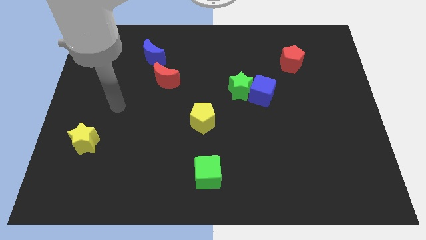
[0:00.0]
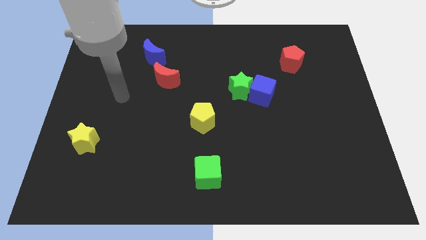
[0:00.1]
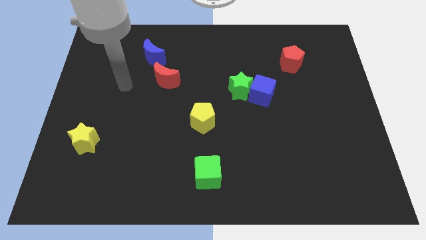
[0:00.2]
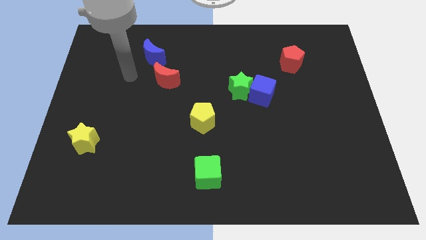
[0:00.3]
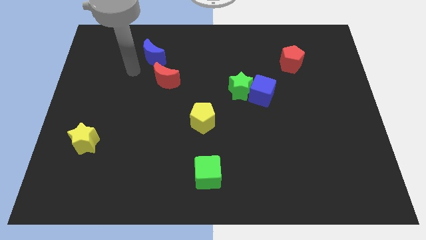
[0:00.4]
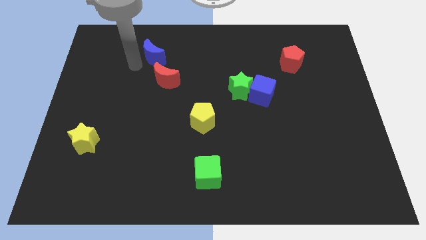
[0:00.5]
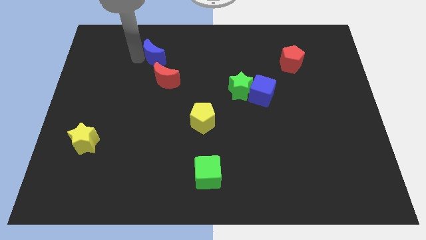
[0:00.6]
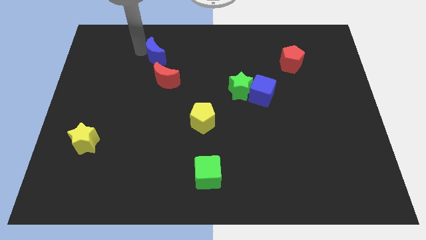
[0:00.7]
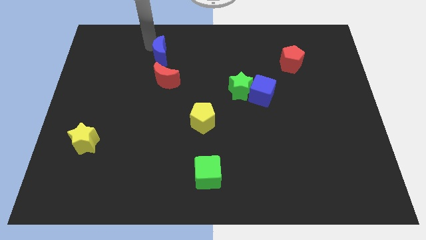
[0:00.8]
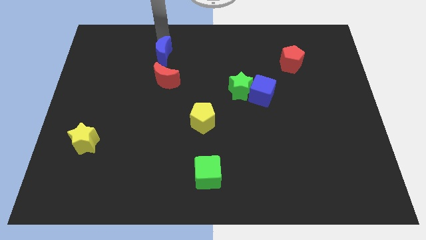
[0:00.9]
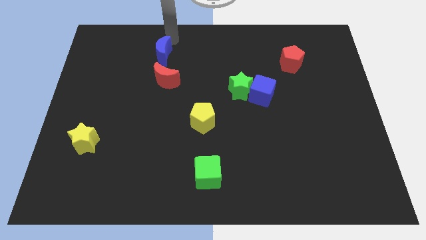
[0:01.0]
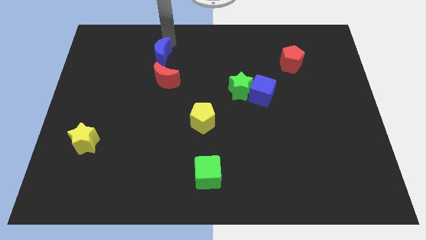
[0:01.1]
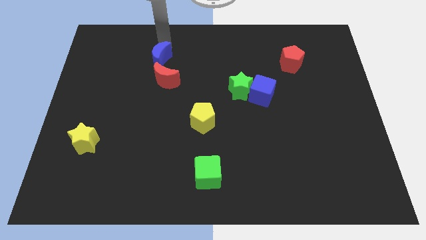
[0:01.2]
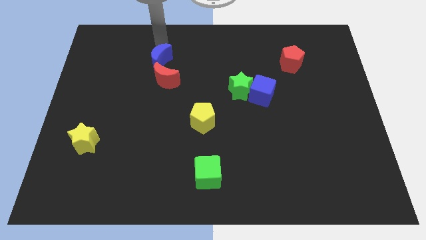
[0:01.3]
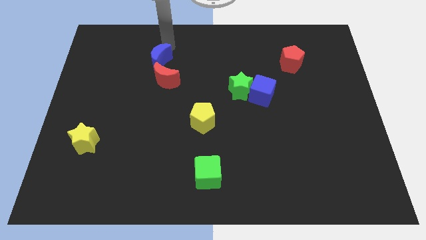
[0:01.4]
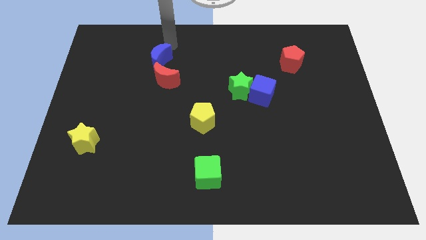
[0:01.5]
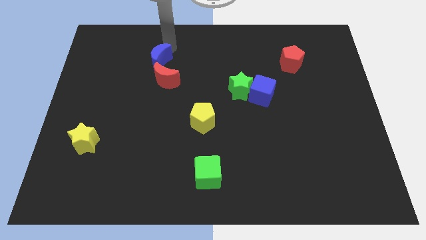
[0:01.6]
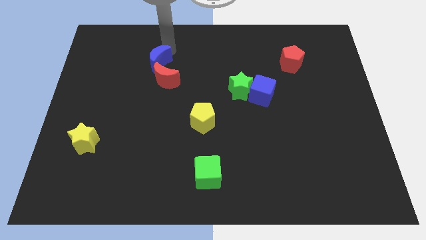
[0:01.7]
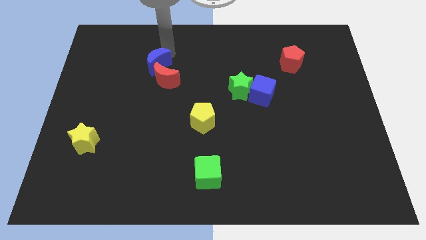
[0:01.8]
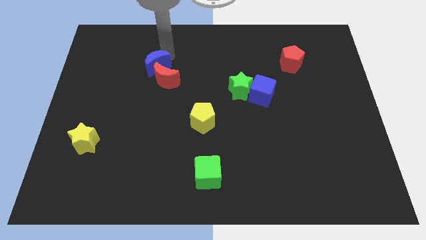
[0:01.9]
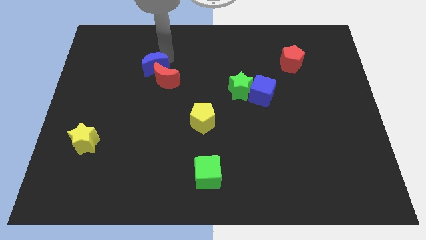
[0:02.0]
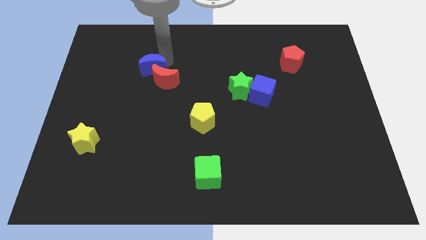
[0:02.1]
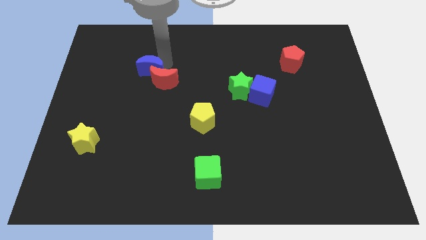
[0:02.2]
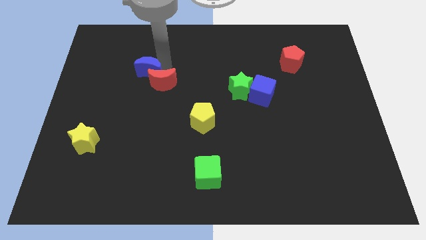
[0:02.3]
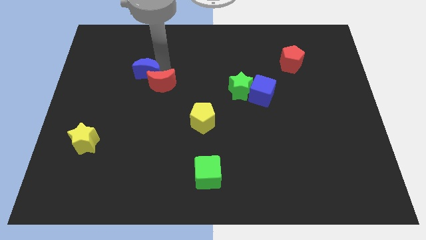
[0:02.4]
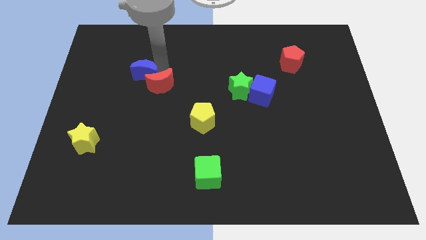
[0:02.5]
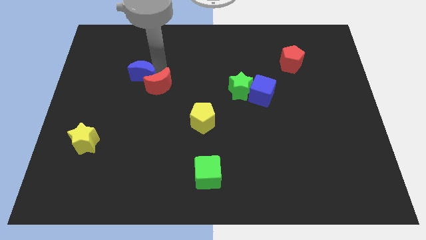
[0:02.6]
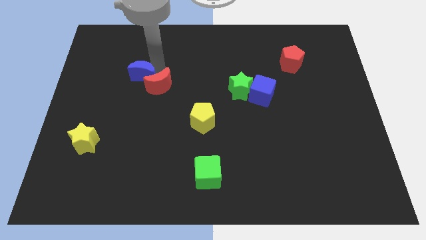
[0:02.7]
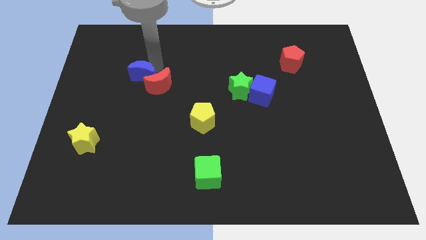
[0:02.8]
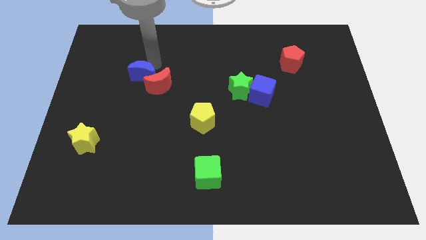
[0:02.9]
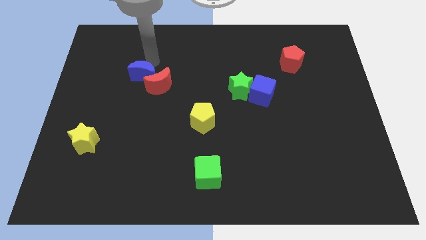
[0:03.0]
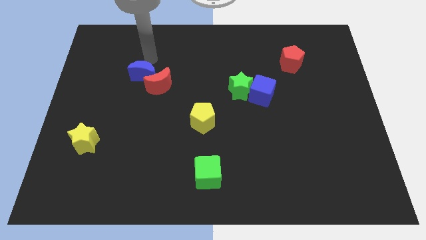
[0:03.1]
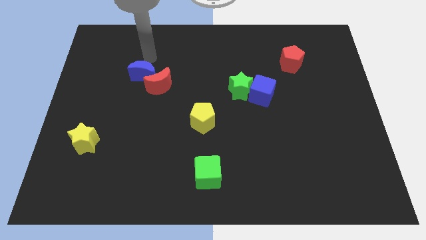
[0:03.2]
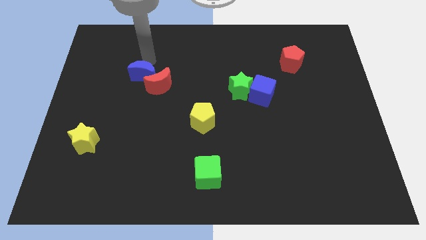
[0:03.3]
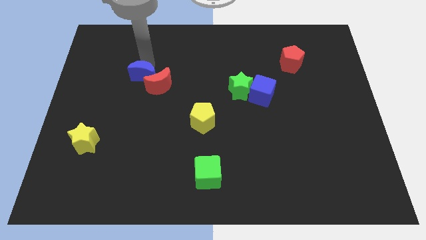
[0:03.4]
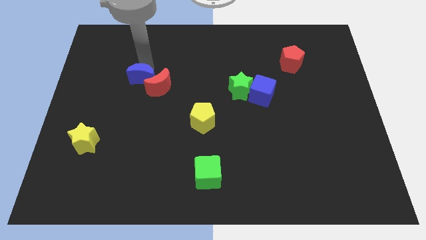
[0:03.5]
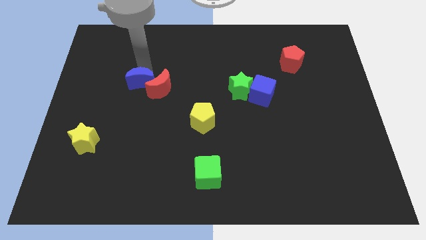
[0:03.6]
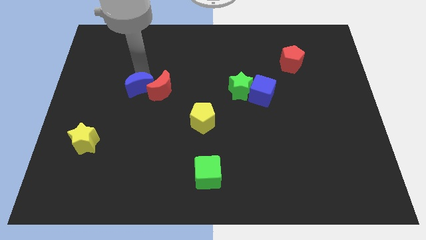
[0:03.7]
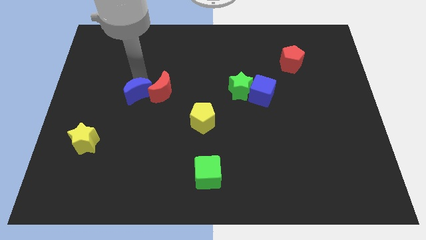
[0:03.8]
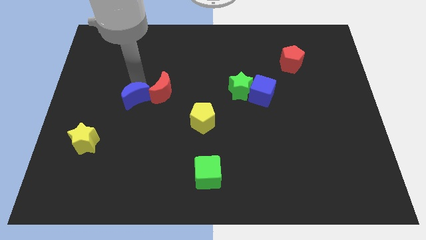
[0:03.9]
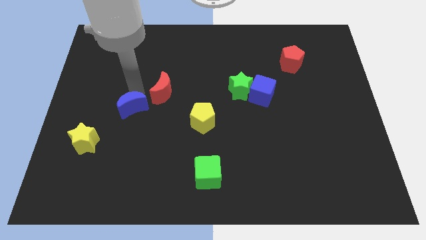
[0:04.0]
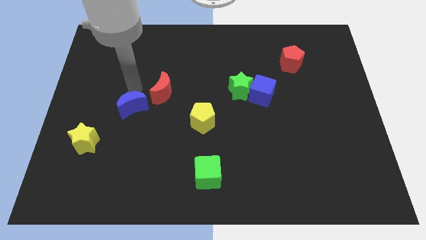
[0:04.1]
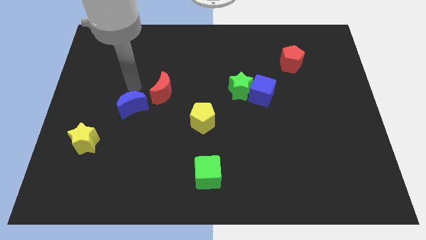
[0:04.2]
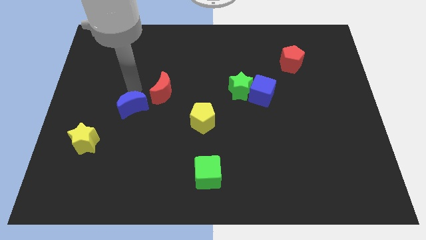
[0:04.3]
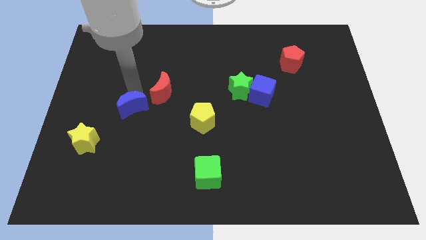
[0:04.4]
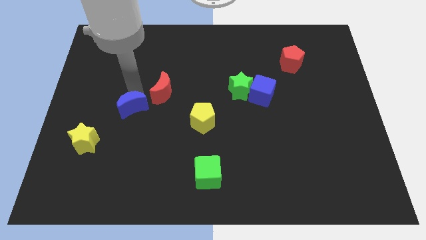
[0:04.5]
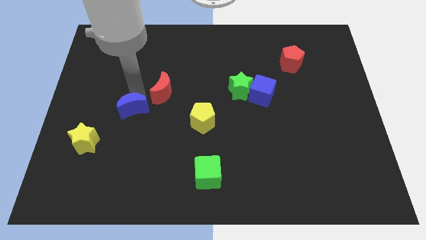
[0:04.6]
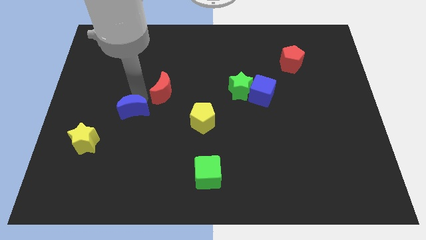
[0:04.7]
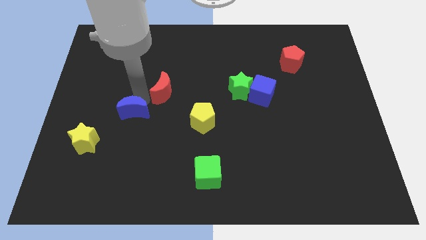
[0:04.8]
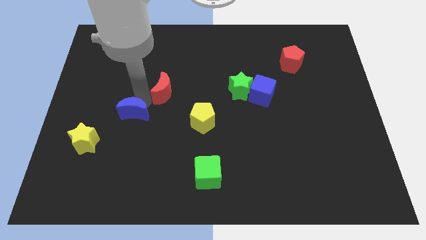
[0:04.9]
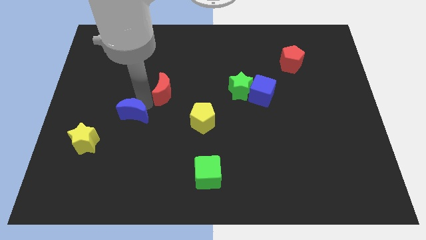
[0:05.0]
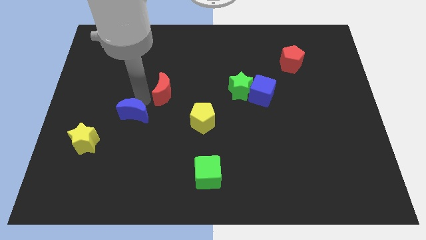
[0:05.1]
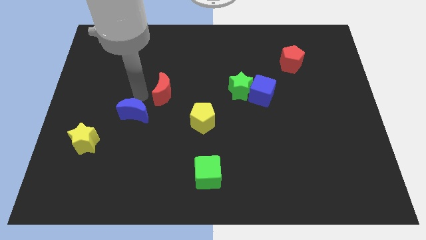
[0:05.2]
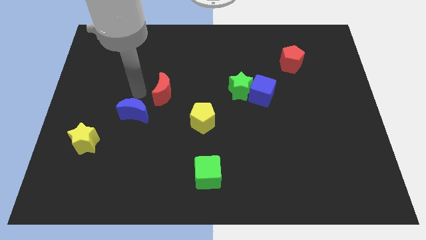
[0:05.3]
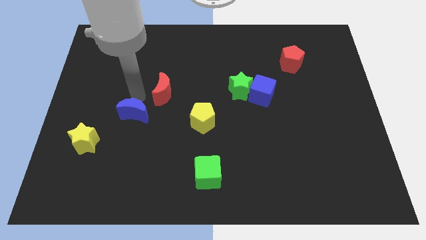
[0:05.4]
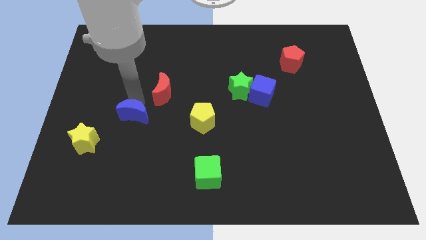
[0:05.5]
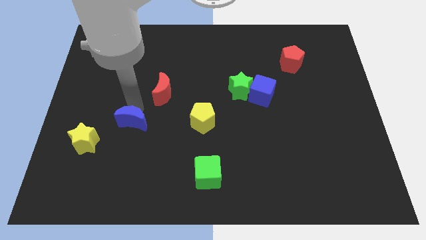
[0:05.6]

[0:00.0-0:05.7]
push the blue moon downwards

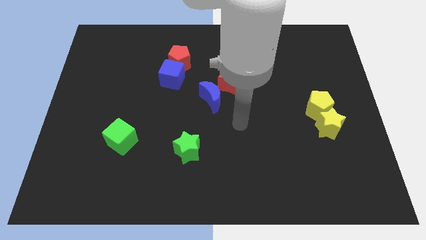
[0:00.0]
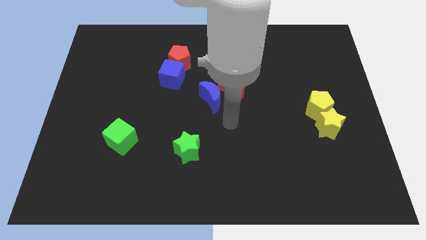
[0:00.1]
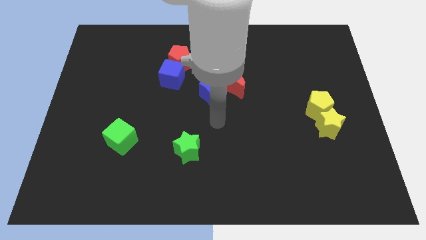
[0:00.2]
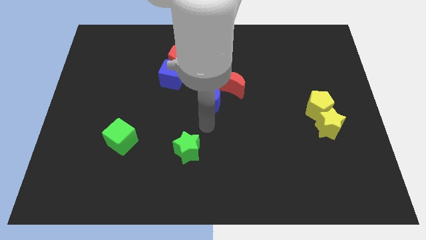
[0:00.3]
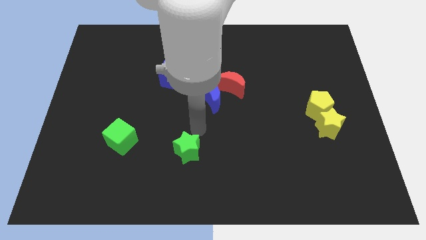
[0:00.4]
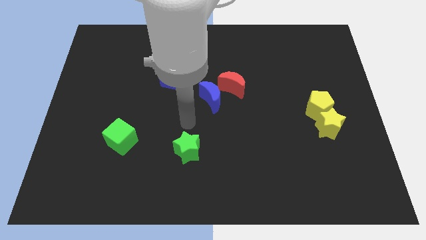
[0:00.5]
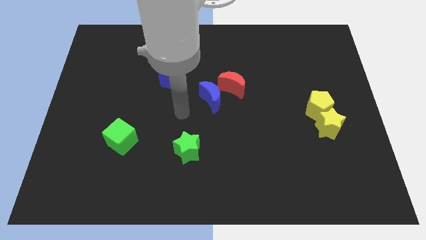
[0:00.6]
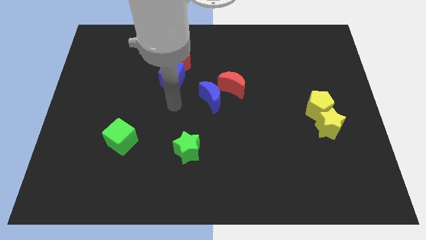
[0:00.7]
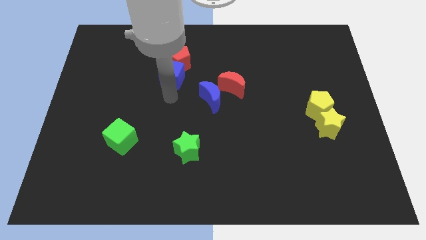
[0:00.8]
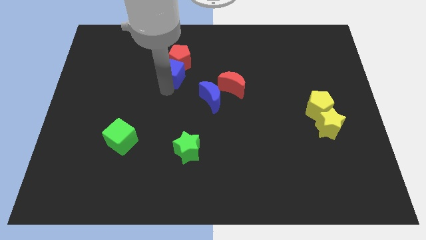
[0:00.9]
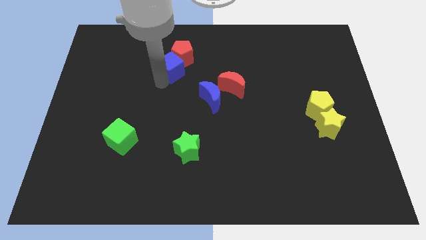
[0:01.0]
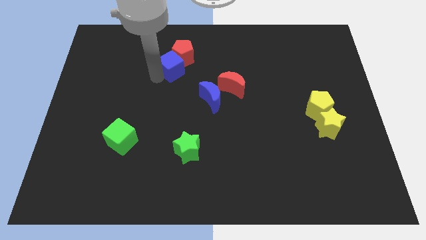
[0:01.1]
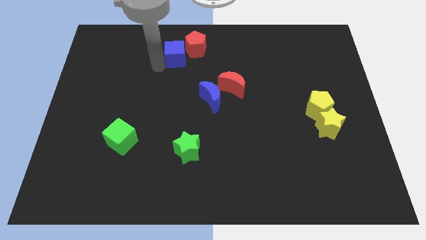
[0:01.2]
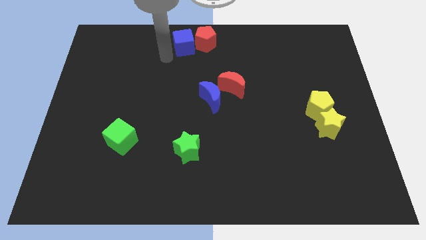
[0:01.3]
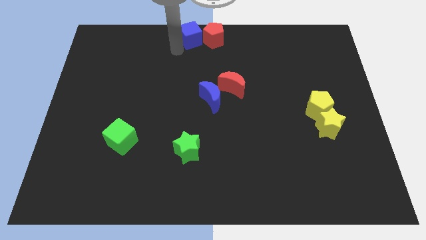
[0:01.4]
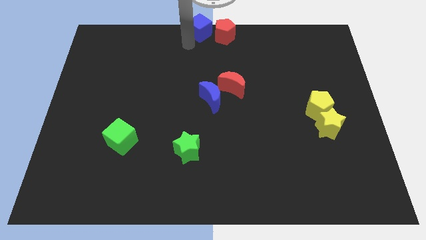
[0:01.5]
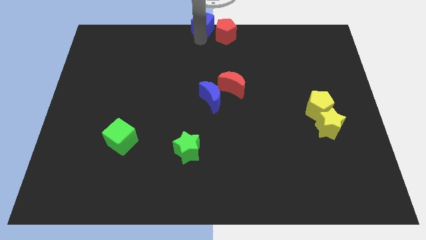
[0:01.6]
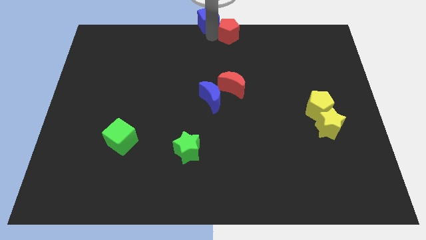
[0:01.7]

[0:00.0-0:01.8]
push the red pentagon a little to the right

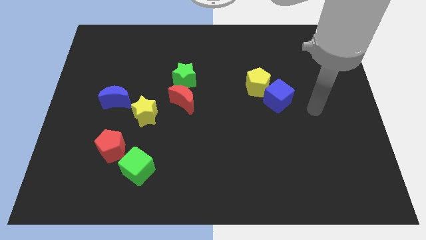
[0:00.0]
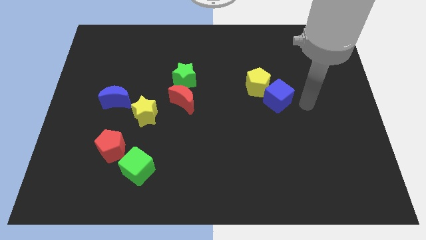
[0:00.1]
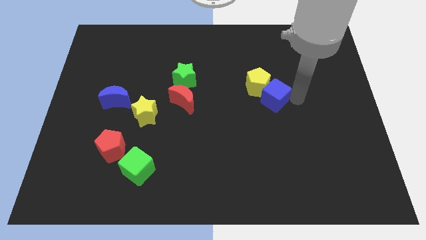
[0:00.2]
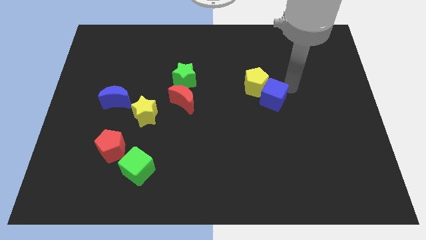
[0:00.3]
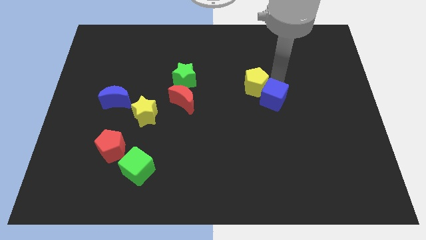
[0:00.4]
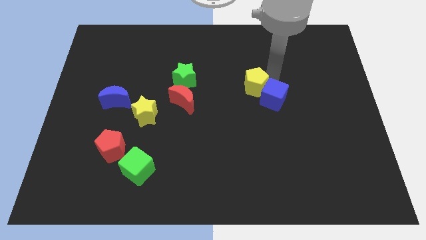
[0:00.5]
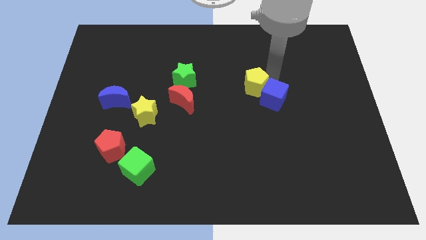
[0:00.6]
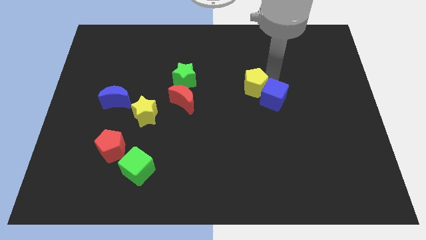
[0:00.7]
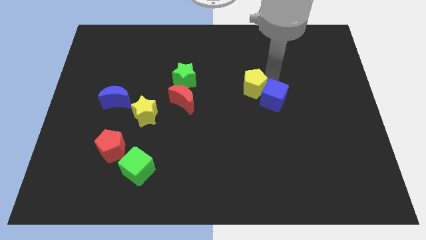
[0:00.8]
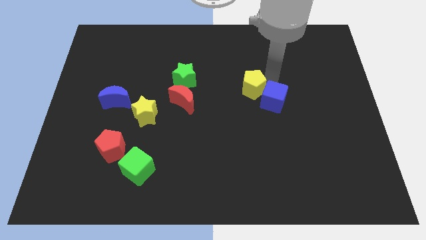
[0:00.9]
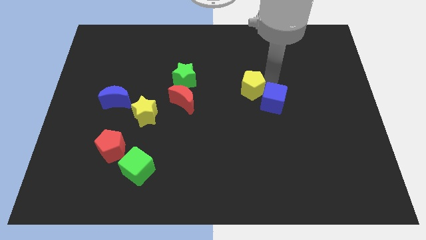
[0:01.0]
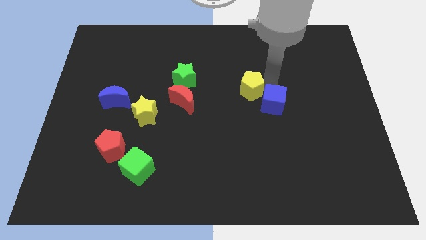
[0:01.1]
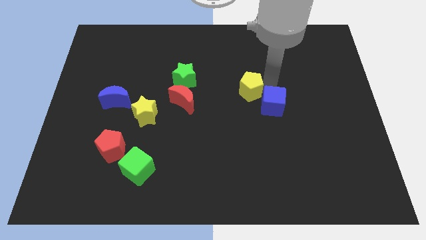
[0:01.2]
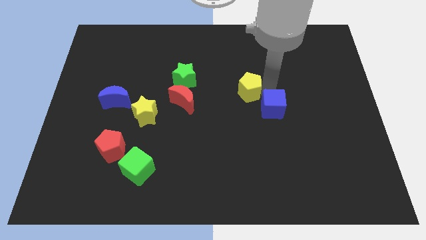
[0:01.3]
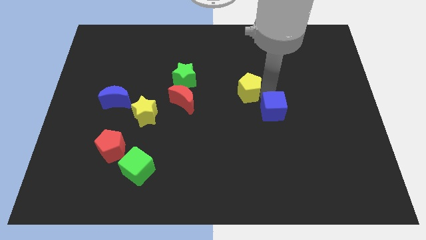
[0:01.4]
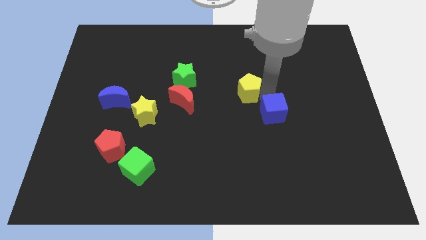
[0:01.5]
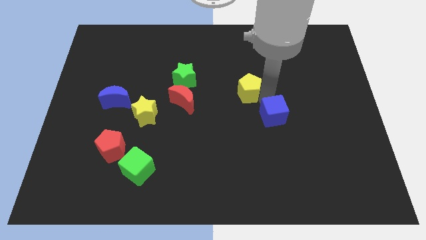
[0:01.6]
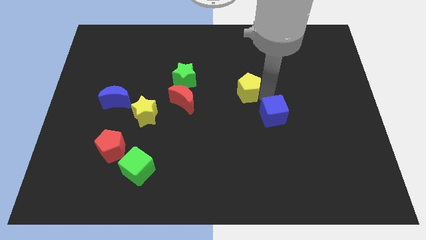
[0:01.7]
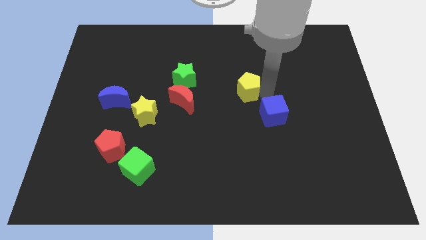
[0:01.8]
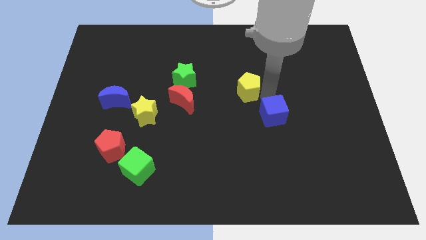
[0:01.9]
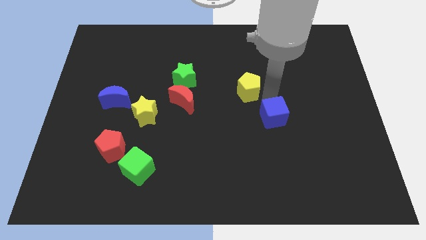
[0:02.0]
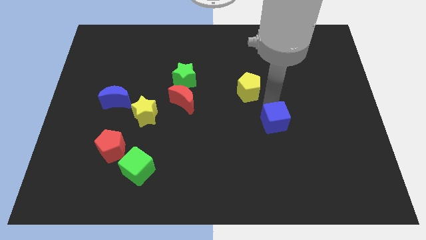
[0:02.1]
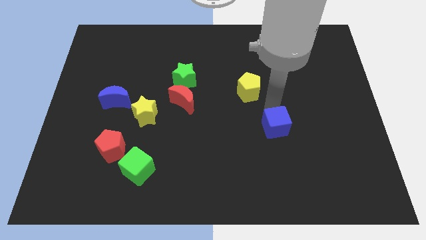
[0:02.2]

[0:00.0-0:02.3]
slide the blue cube down slightly
